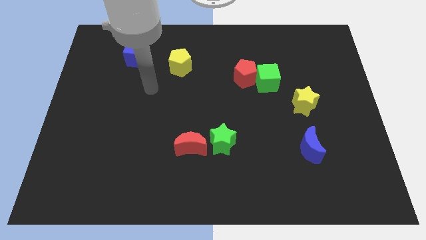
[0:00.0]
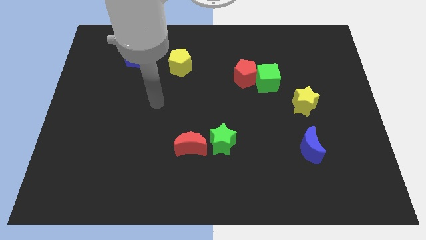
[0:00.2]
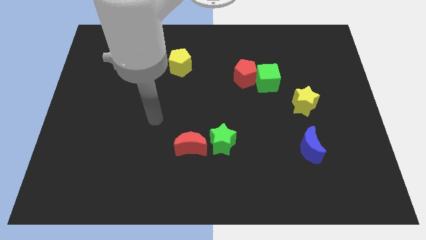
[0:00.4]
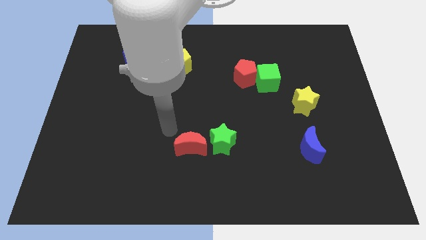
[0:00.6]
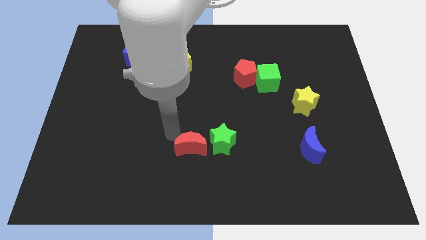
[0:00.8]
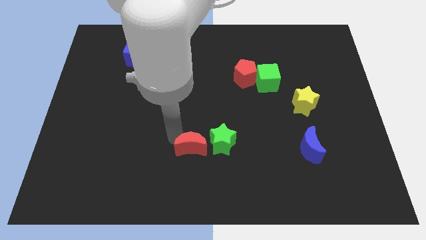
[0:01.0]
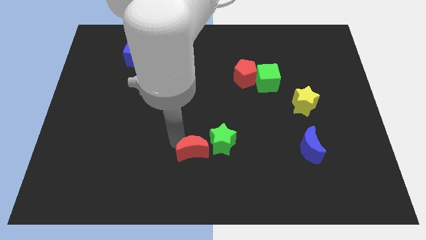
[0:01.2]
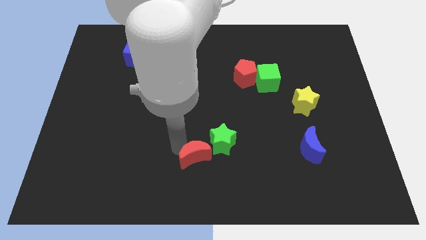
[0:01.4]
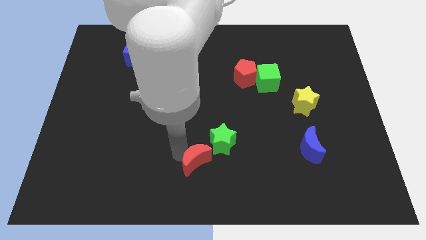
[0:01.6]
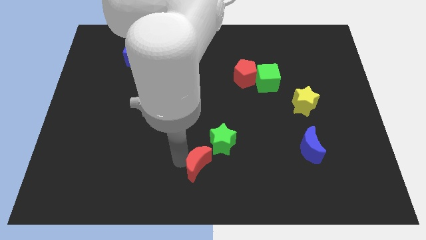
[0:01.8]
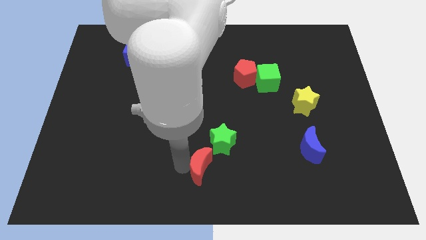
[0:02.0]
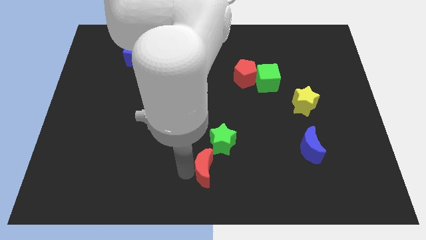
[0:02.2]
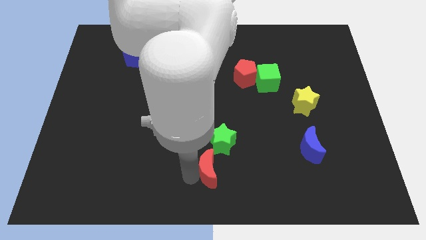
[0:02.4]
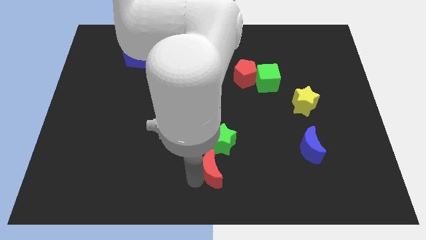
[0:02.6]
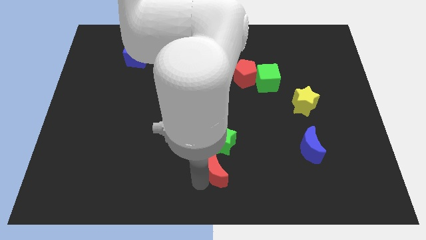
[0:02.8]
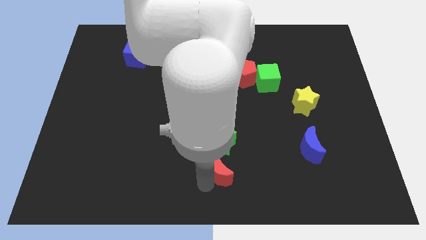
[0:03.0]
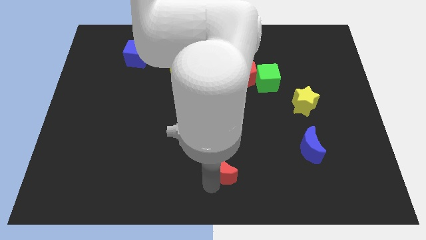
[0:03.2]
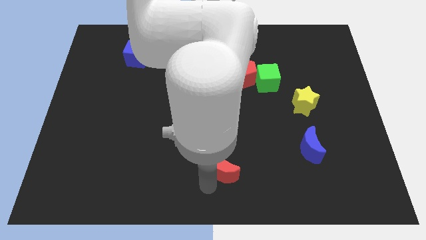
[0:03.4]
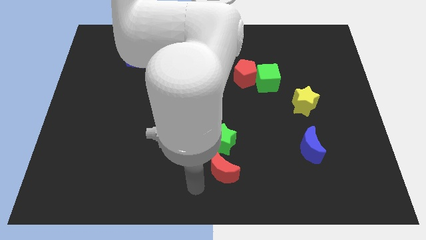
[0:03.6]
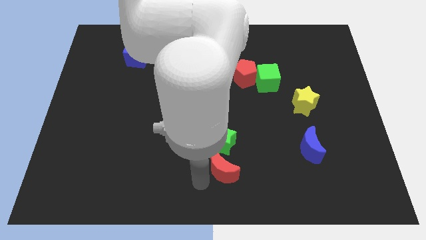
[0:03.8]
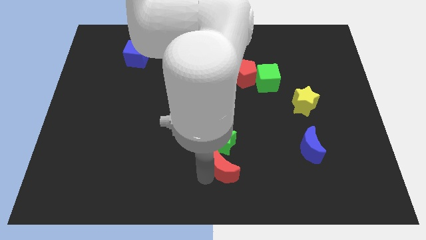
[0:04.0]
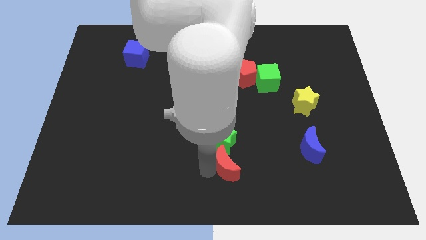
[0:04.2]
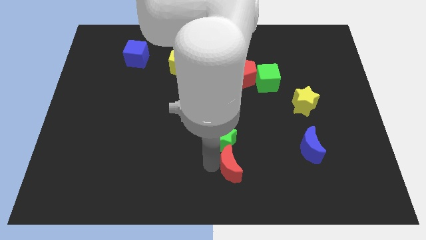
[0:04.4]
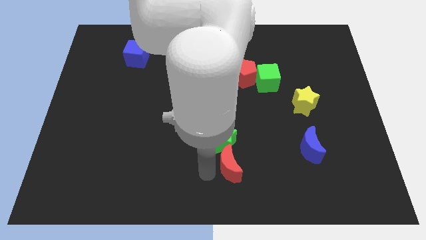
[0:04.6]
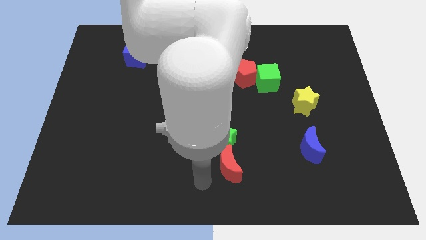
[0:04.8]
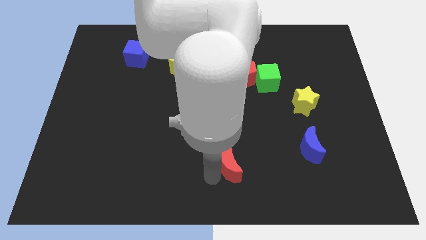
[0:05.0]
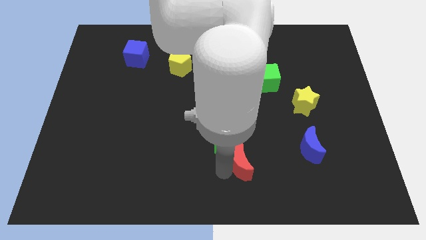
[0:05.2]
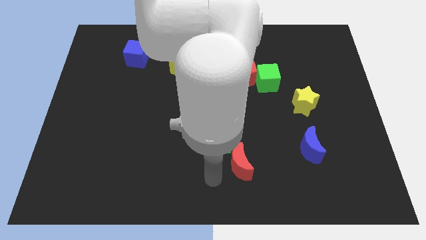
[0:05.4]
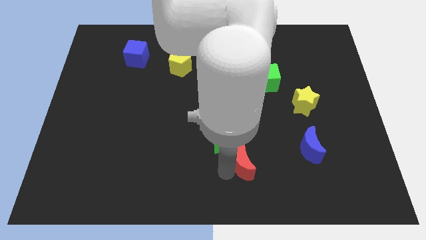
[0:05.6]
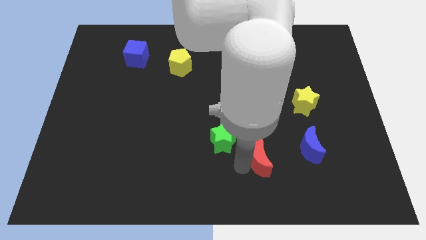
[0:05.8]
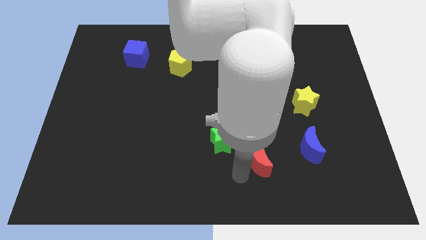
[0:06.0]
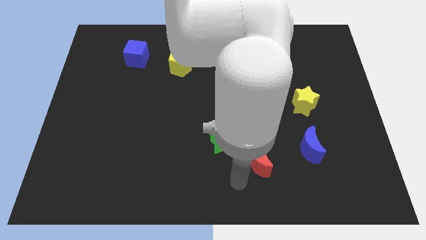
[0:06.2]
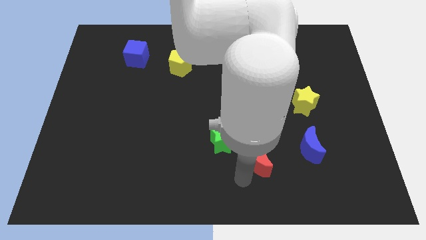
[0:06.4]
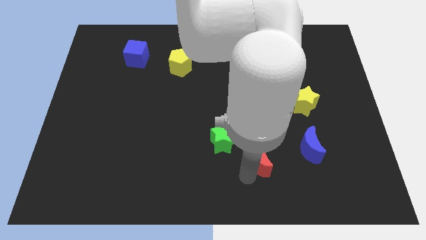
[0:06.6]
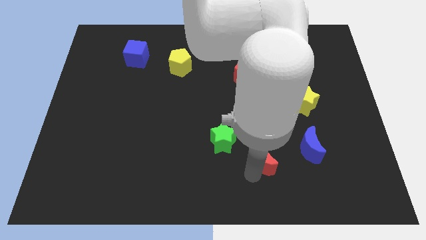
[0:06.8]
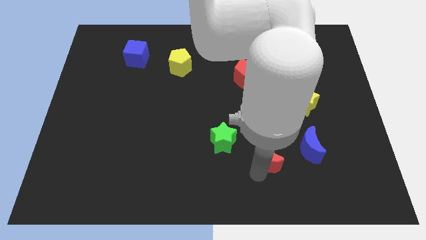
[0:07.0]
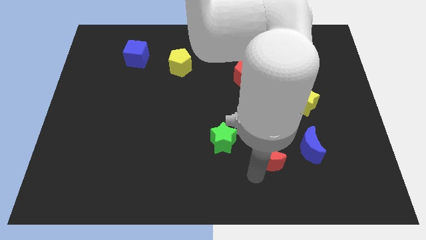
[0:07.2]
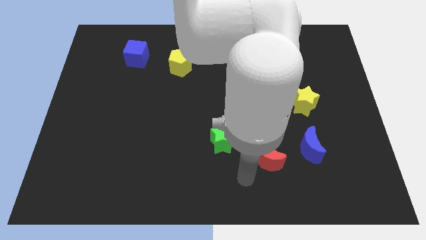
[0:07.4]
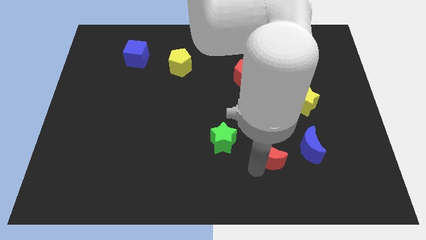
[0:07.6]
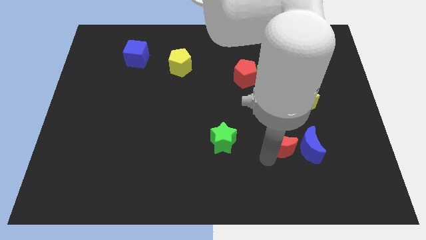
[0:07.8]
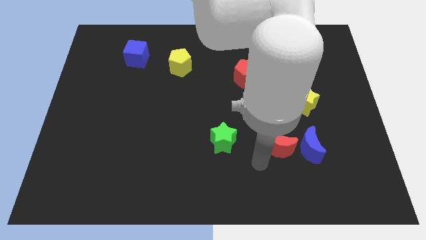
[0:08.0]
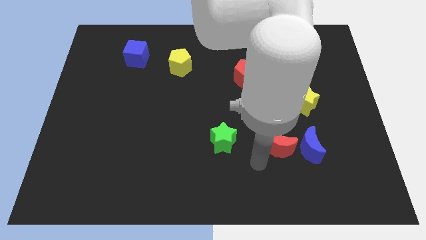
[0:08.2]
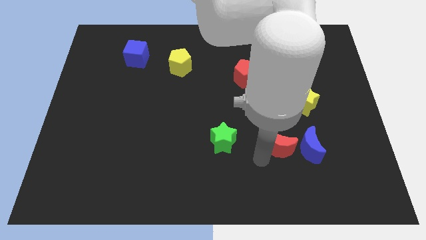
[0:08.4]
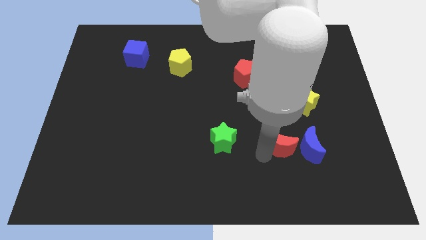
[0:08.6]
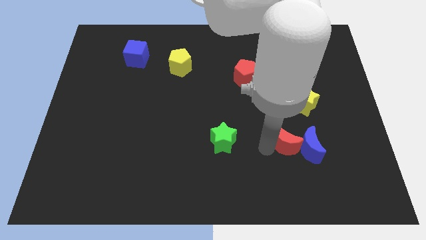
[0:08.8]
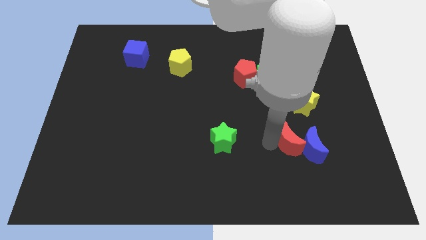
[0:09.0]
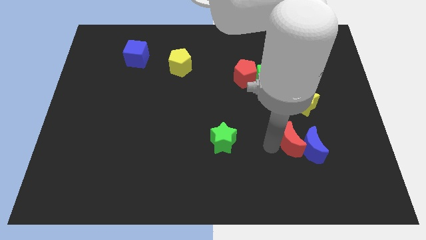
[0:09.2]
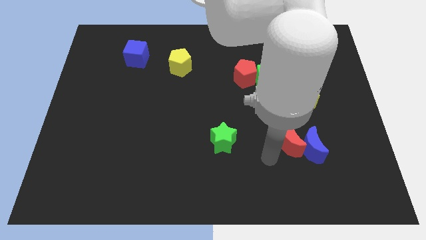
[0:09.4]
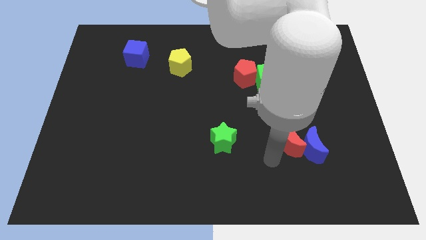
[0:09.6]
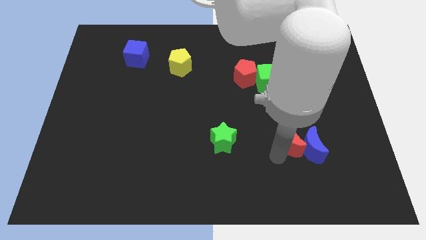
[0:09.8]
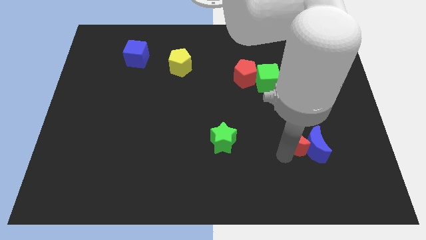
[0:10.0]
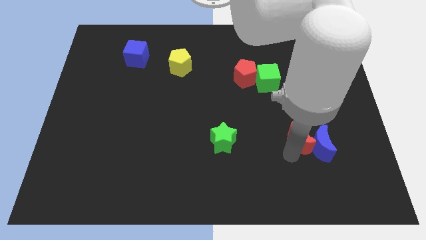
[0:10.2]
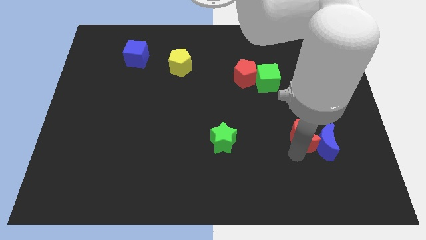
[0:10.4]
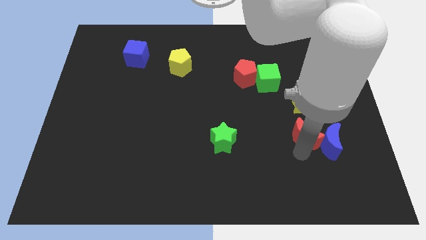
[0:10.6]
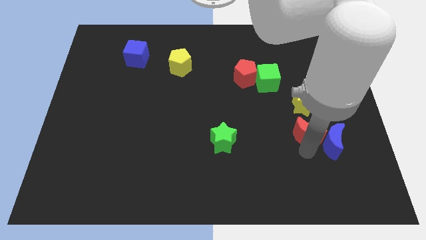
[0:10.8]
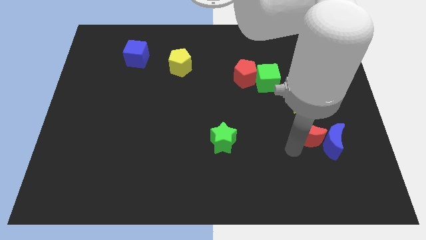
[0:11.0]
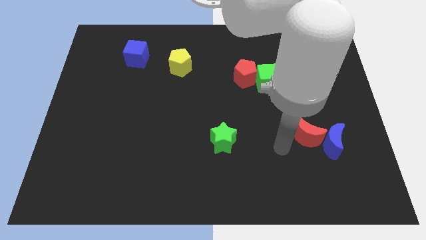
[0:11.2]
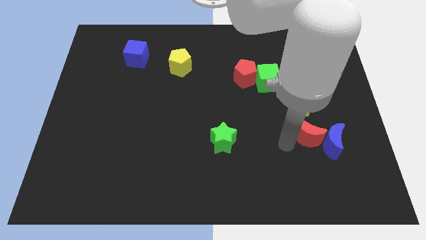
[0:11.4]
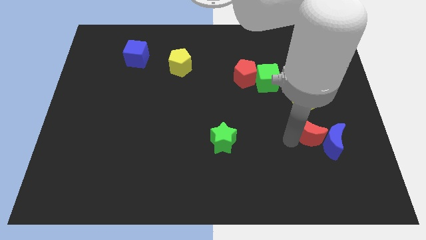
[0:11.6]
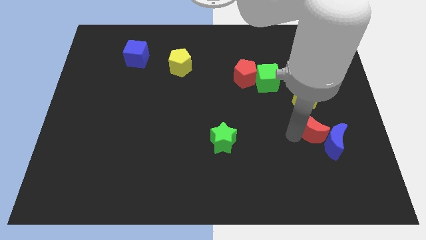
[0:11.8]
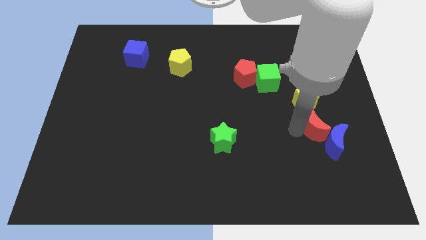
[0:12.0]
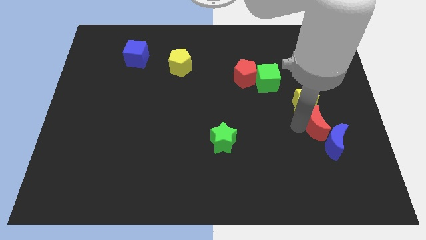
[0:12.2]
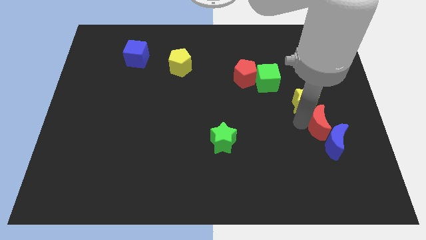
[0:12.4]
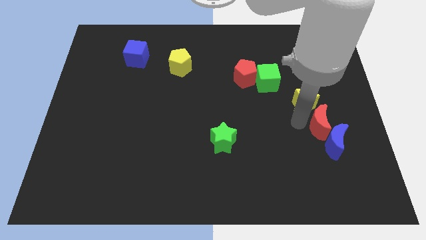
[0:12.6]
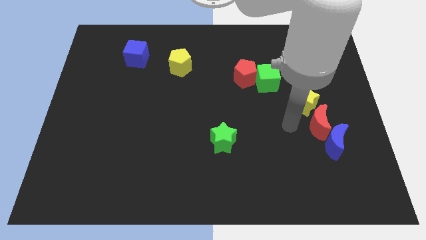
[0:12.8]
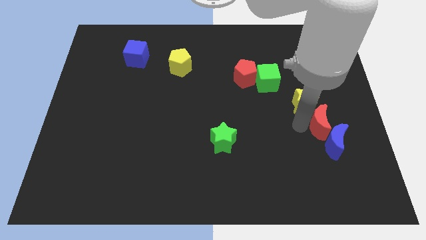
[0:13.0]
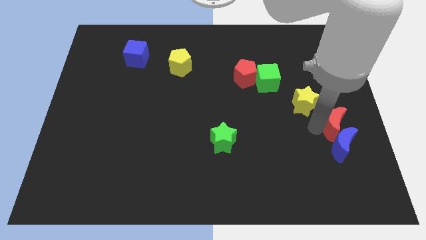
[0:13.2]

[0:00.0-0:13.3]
move the red moon to the right side
